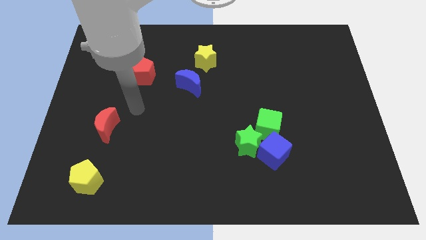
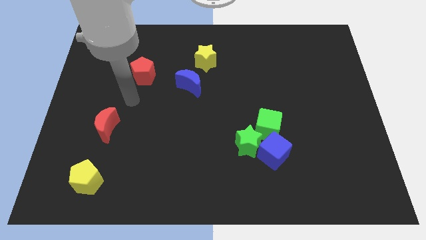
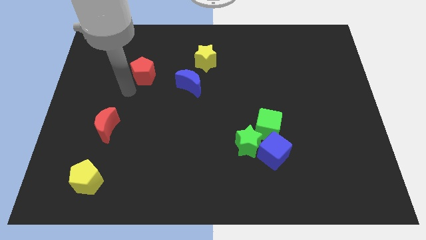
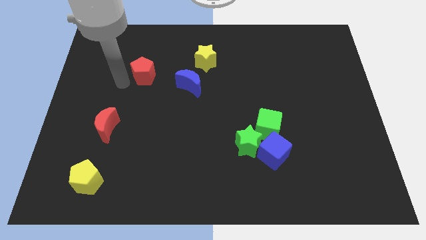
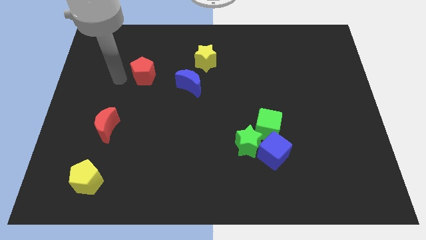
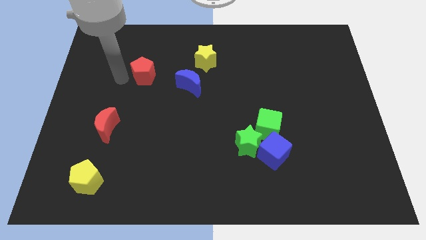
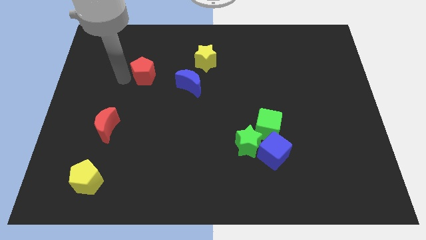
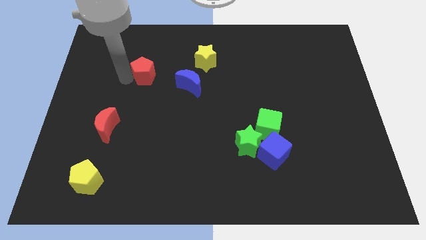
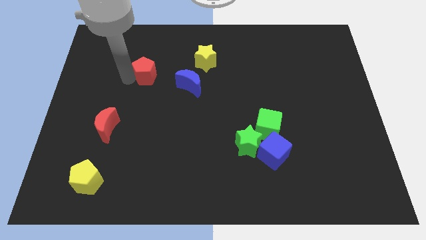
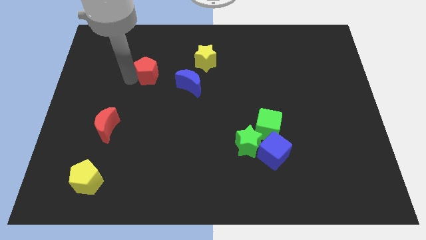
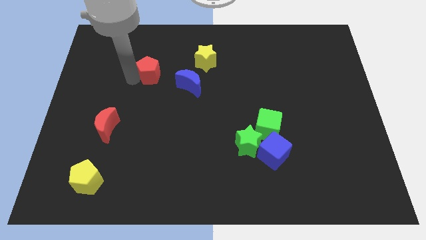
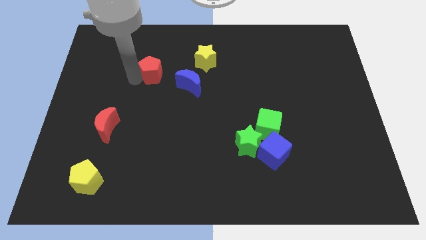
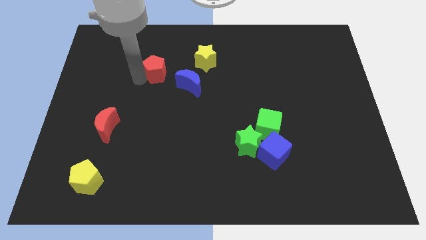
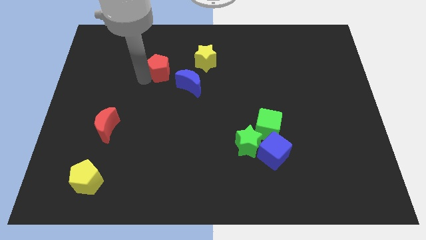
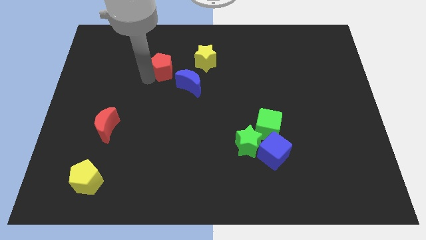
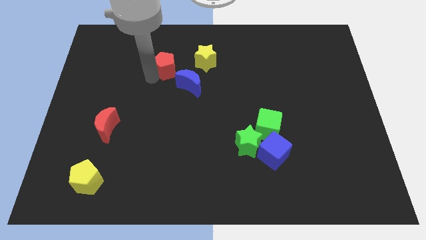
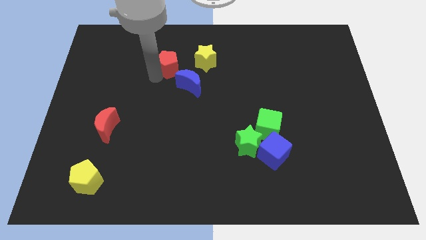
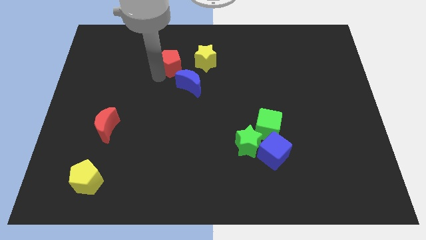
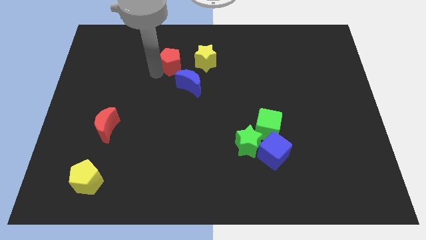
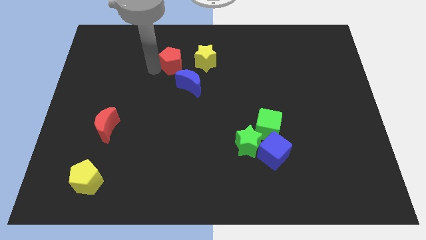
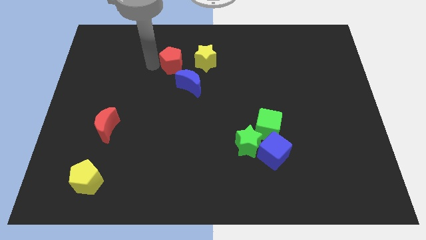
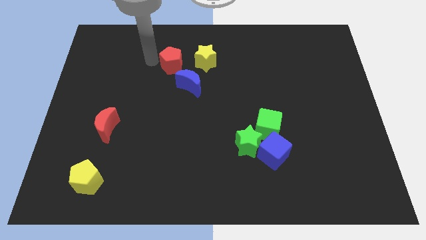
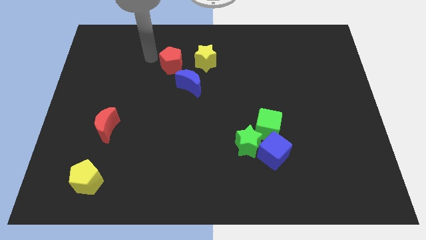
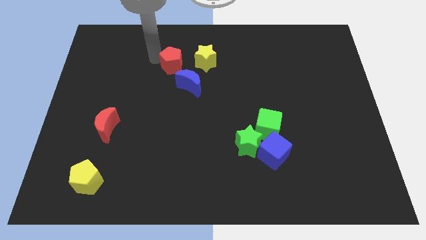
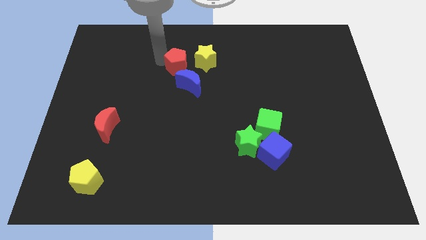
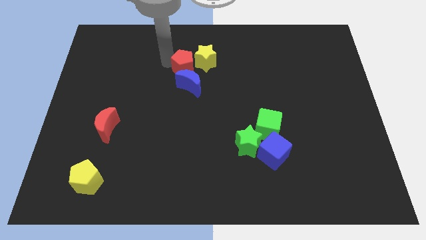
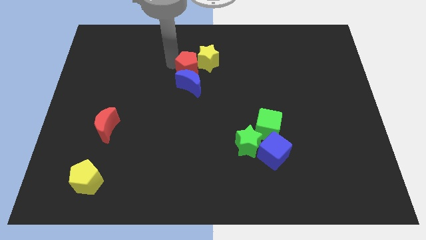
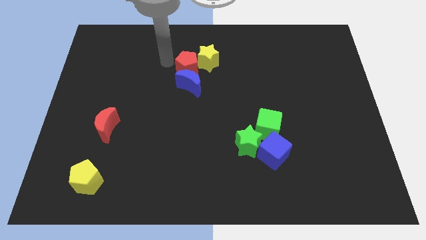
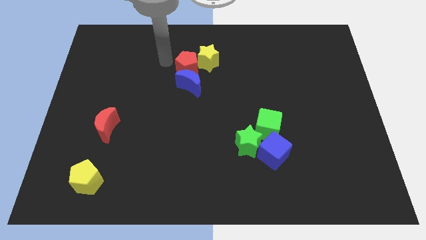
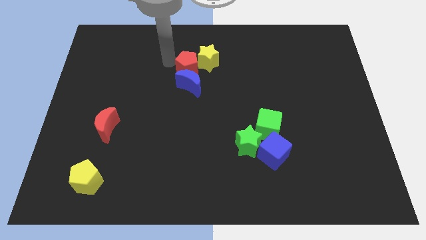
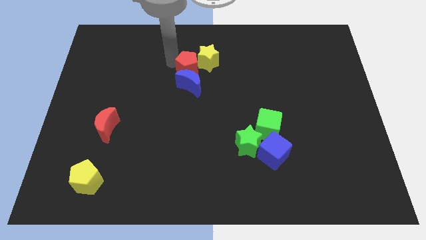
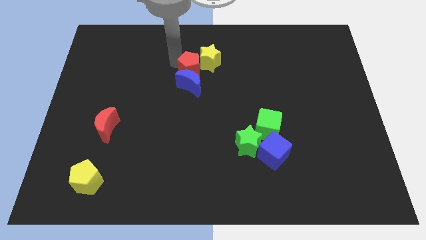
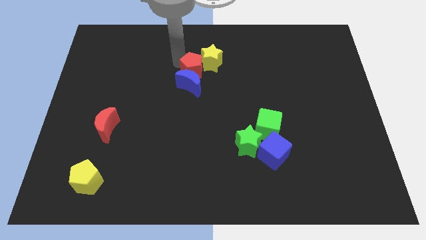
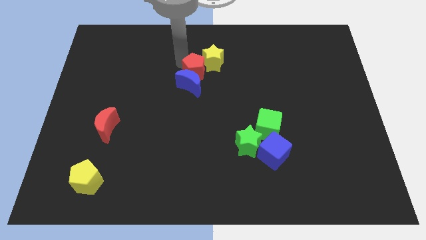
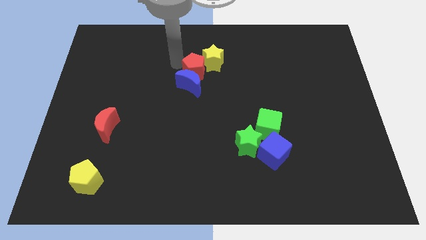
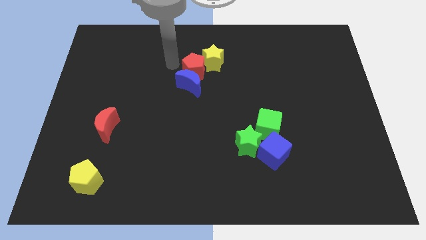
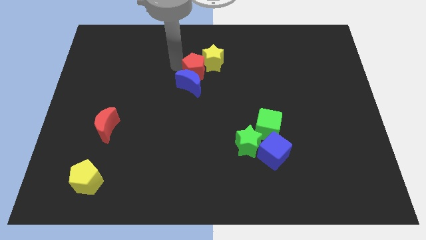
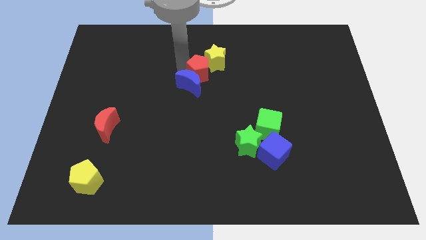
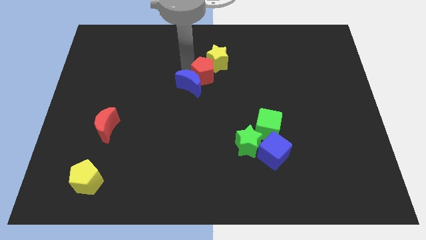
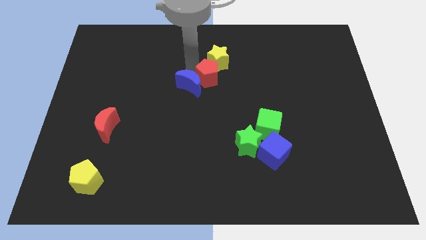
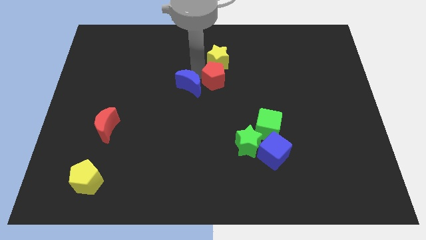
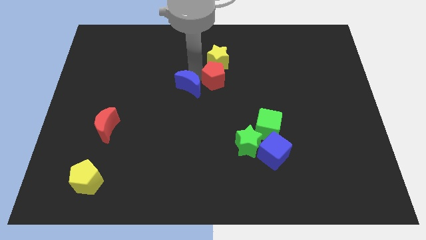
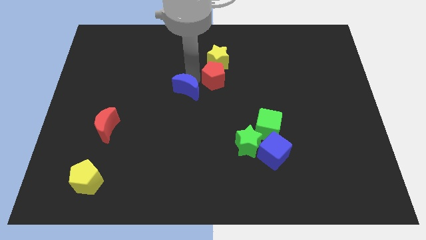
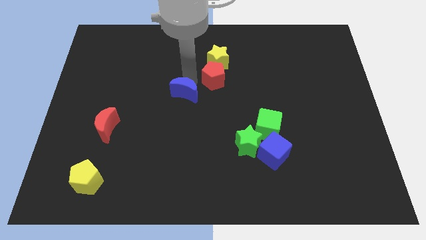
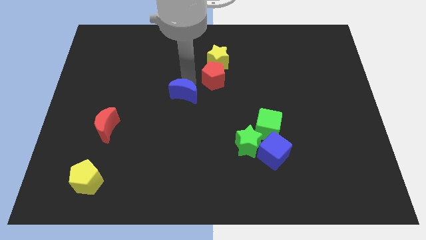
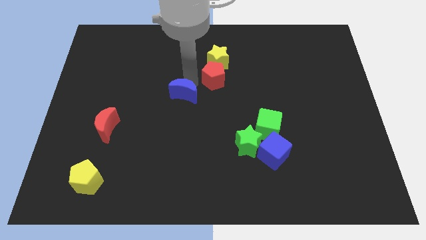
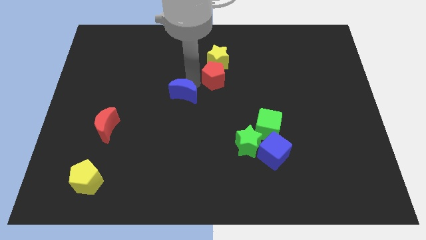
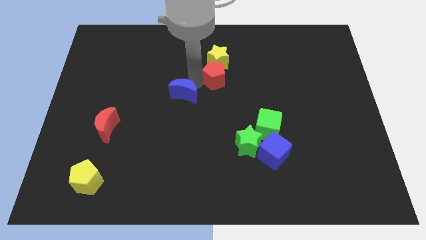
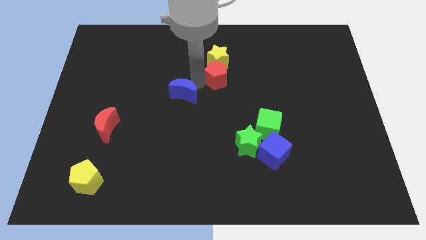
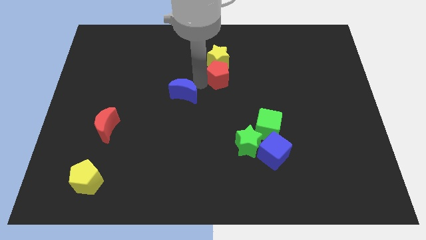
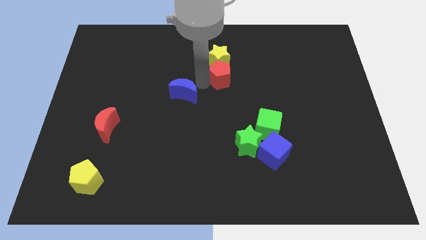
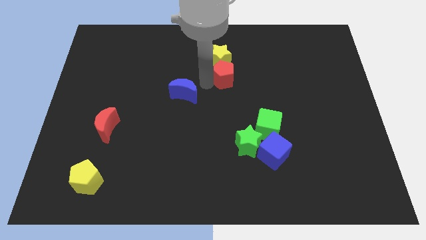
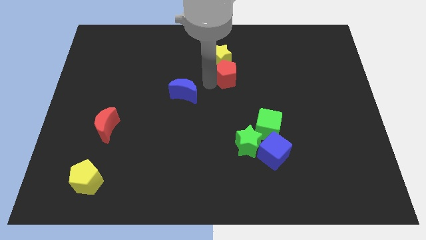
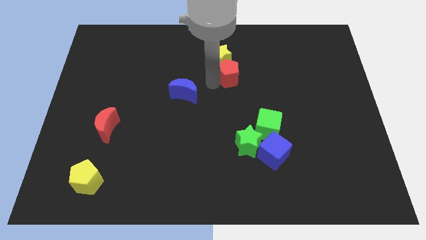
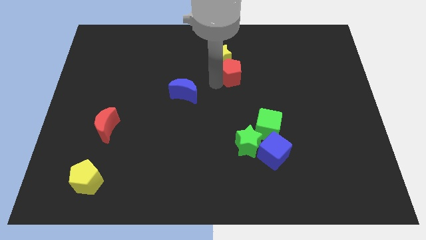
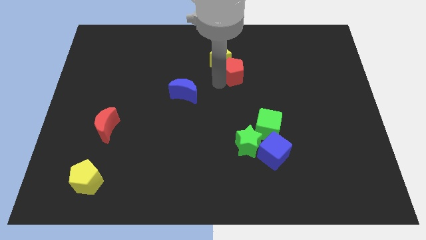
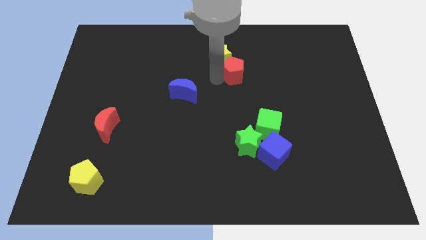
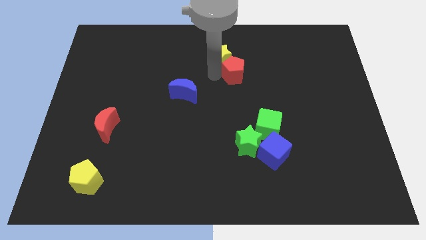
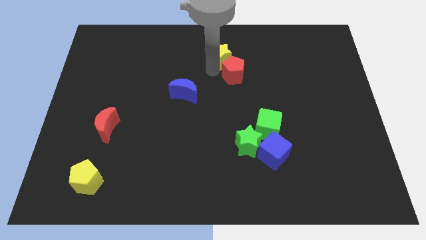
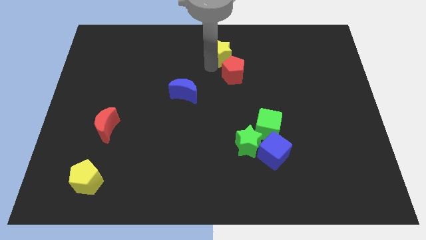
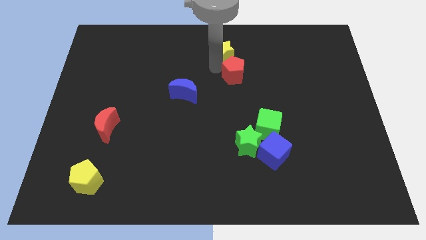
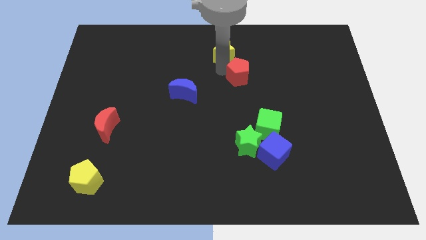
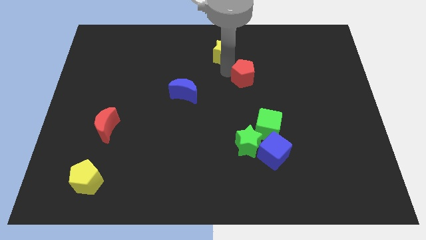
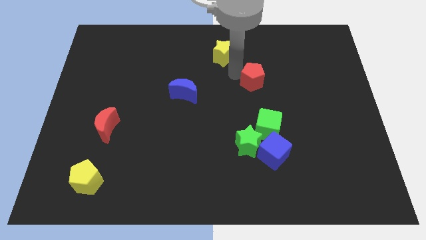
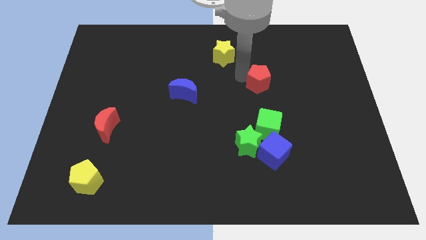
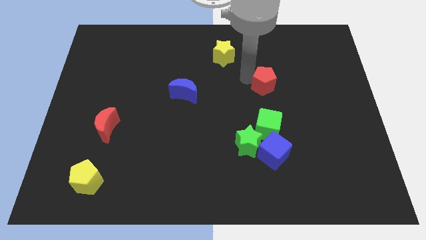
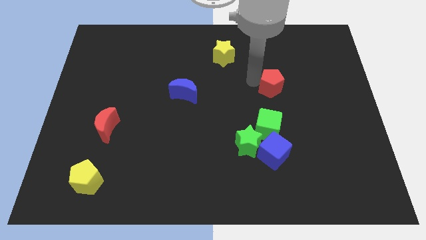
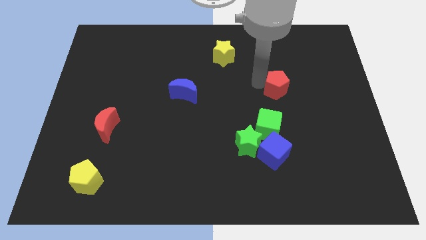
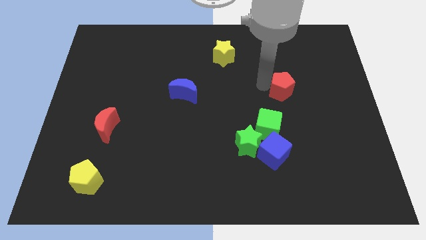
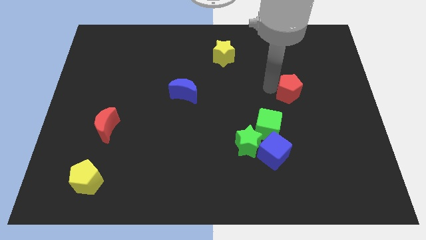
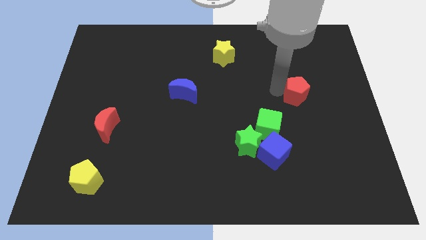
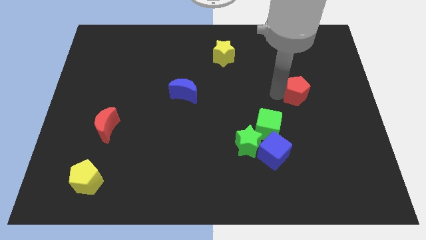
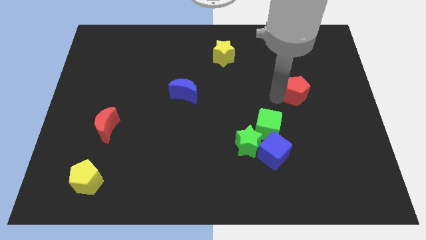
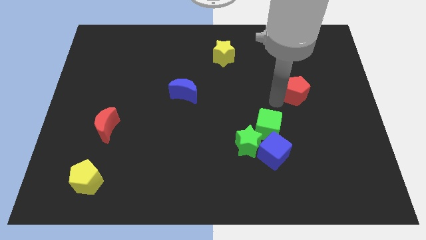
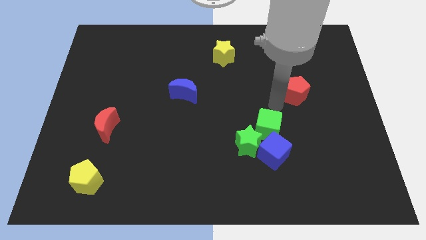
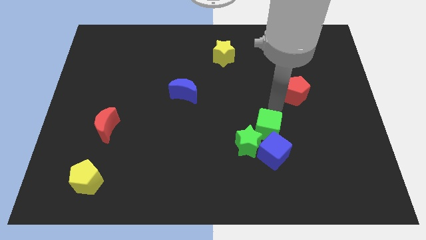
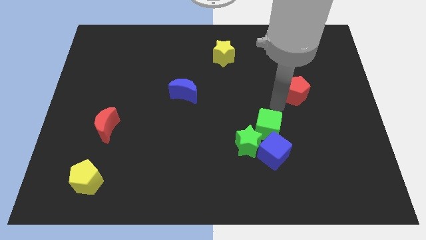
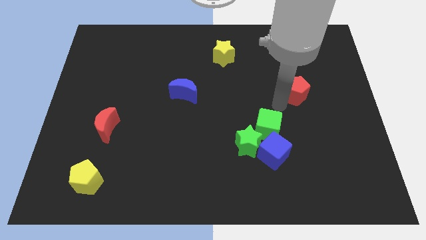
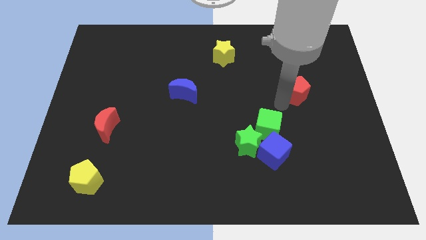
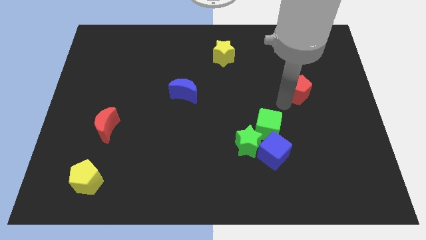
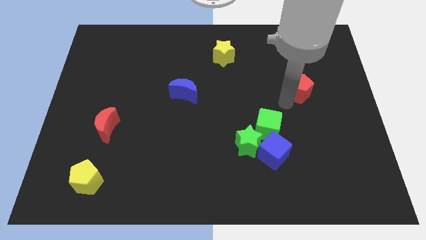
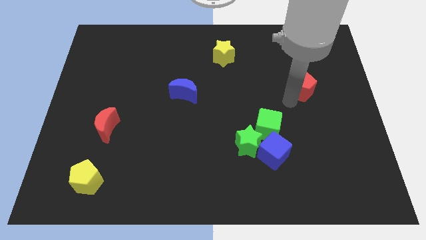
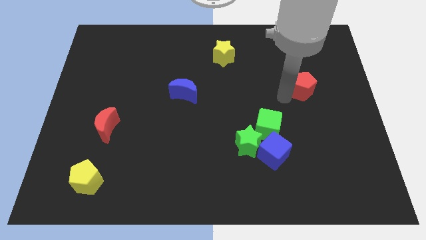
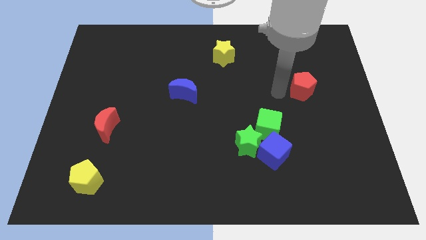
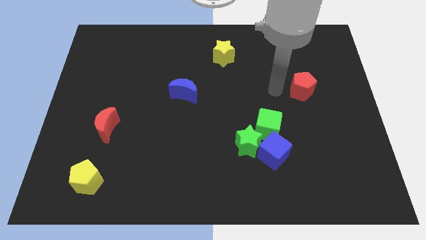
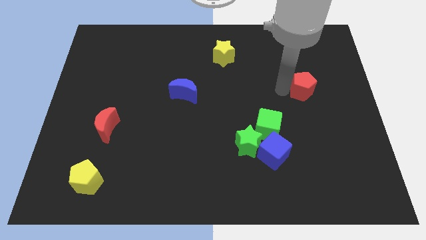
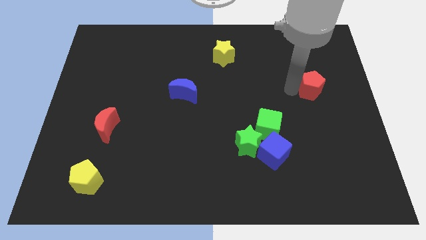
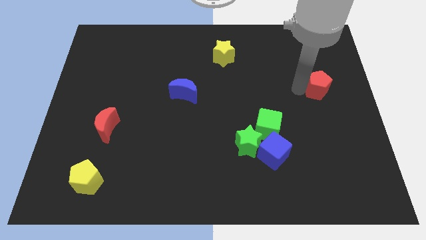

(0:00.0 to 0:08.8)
push the red pentagon to the right side of the board
